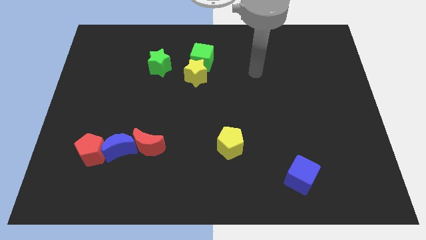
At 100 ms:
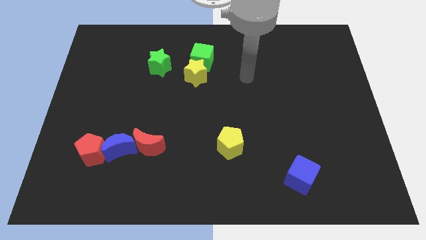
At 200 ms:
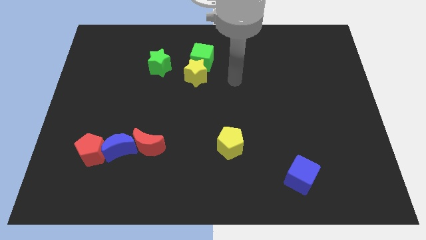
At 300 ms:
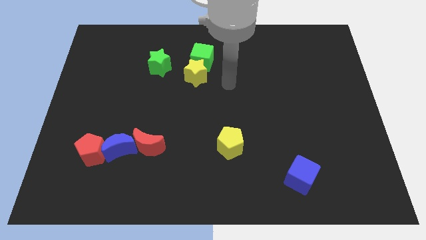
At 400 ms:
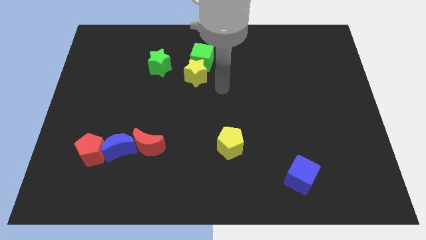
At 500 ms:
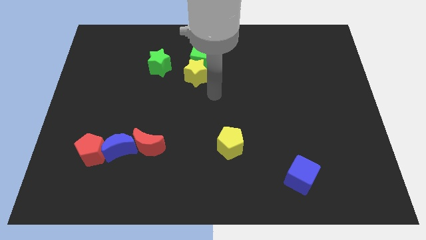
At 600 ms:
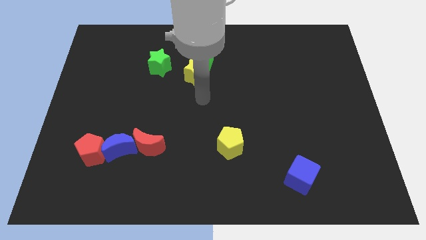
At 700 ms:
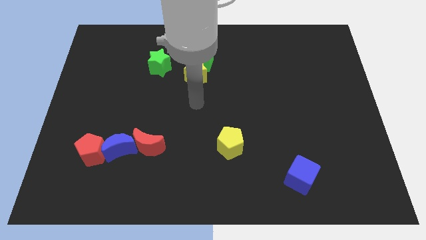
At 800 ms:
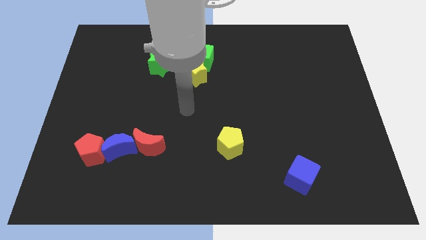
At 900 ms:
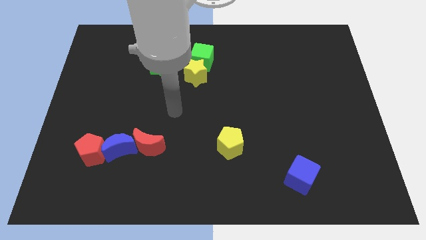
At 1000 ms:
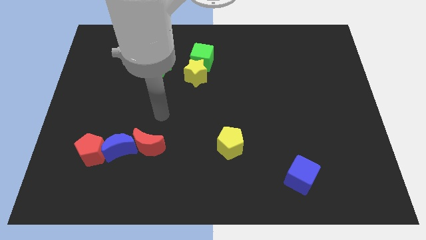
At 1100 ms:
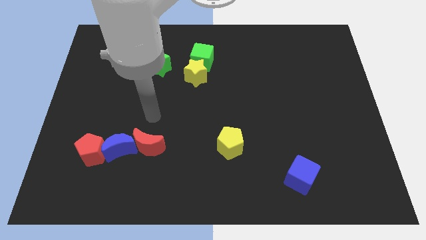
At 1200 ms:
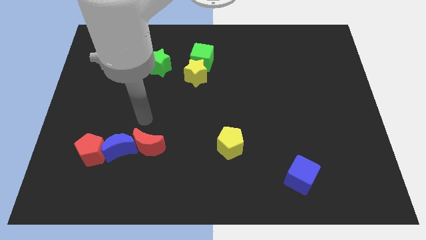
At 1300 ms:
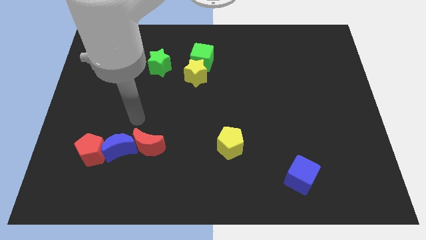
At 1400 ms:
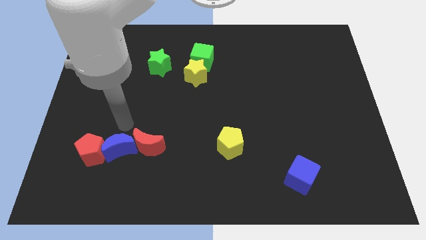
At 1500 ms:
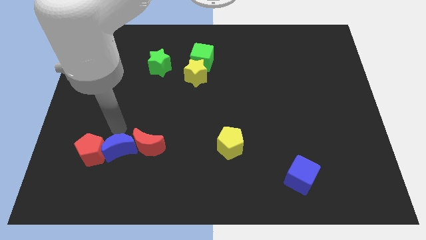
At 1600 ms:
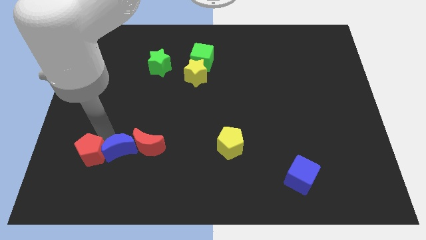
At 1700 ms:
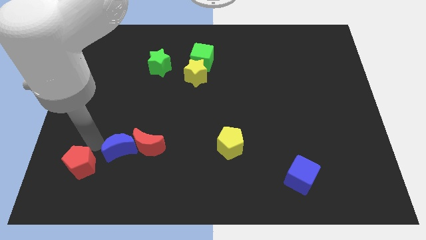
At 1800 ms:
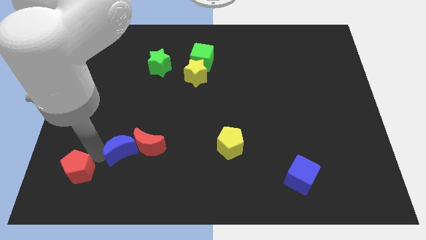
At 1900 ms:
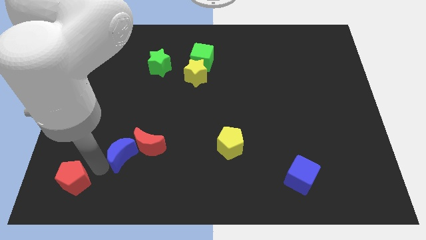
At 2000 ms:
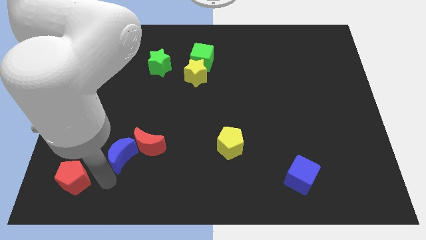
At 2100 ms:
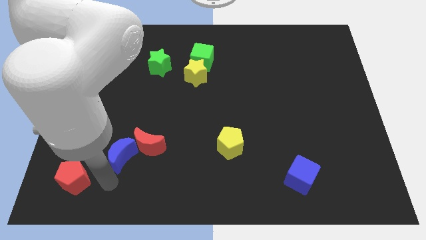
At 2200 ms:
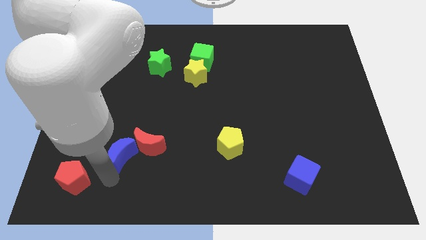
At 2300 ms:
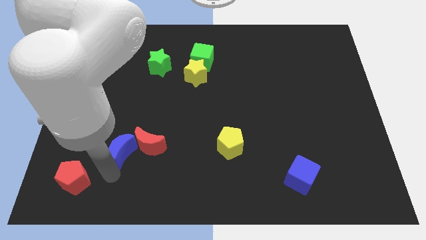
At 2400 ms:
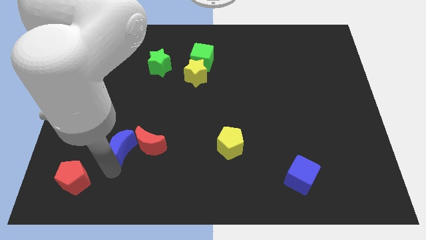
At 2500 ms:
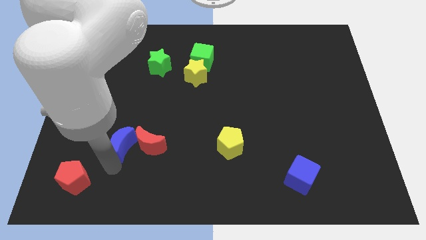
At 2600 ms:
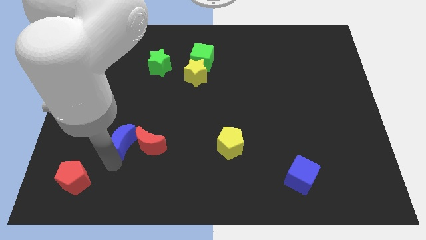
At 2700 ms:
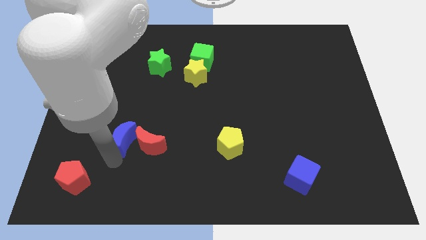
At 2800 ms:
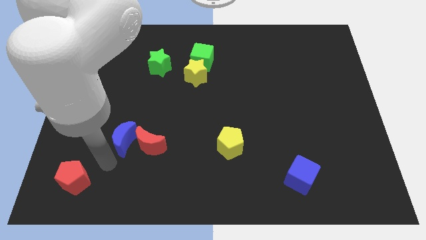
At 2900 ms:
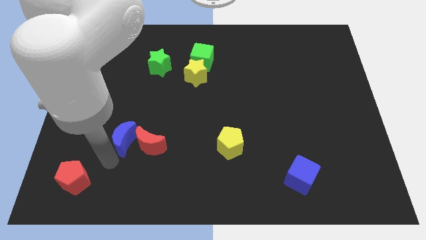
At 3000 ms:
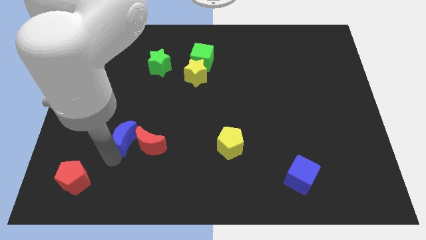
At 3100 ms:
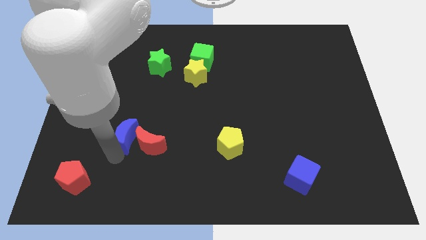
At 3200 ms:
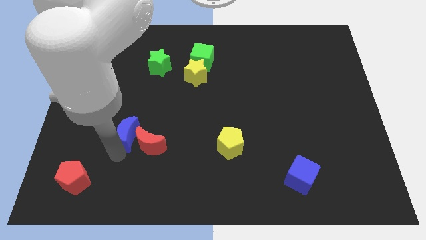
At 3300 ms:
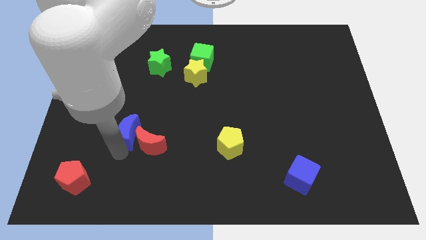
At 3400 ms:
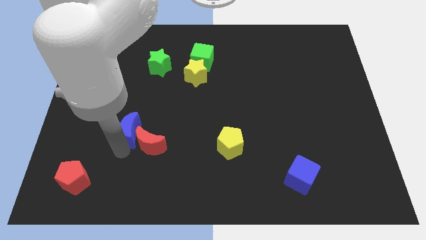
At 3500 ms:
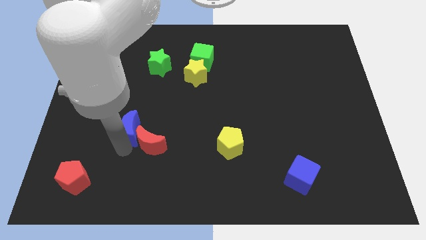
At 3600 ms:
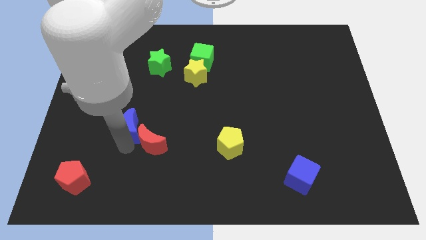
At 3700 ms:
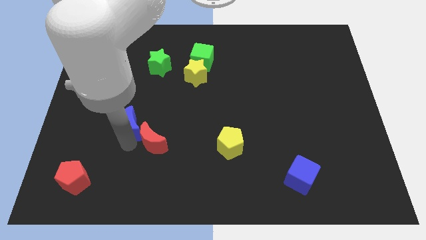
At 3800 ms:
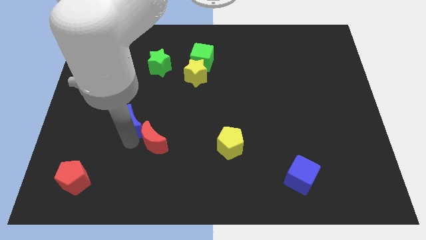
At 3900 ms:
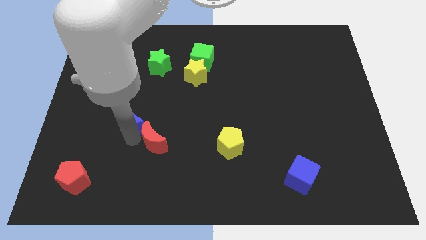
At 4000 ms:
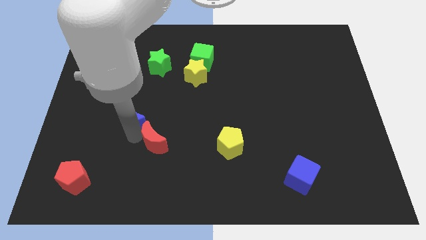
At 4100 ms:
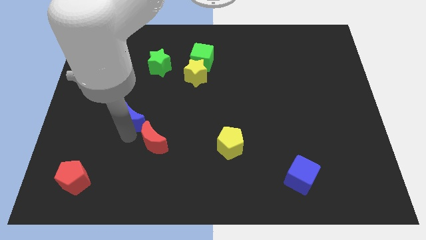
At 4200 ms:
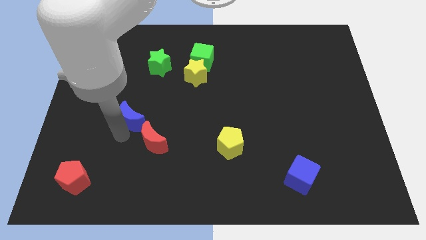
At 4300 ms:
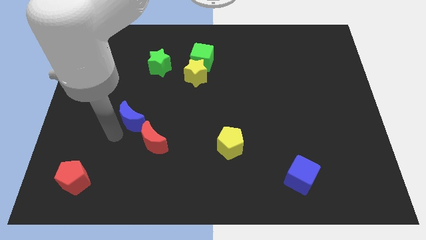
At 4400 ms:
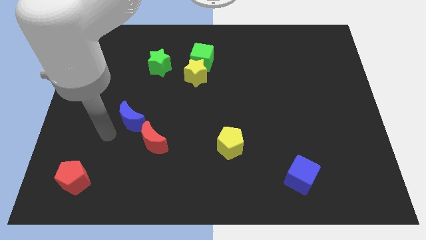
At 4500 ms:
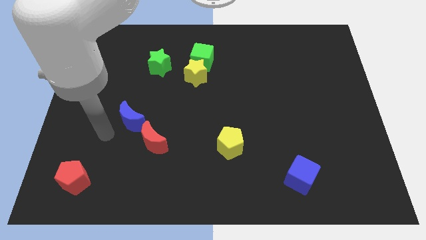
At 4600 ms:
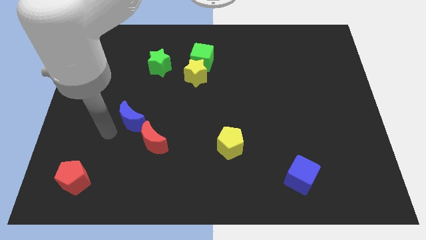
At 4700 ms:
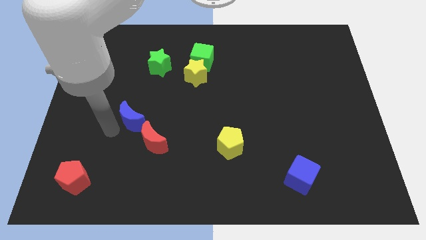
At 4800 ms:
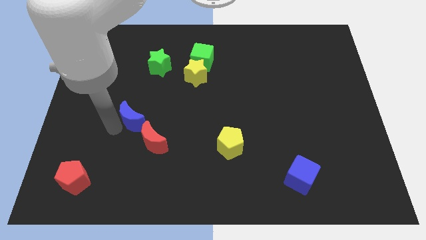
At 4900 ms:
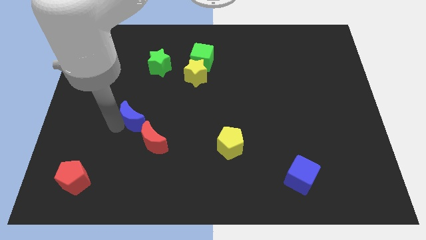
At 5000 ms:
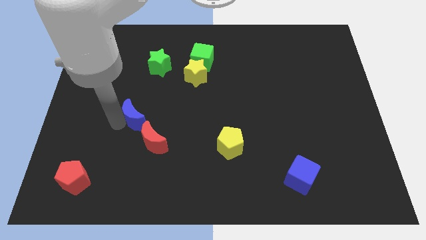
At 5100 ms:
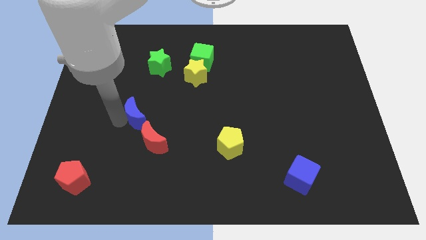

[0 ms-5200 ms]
slide the blue moon slightly upwards and right diagonally

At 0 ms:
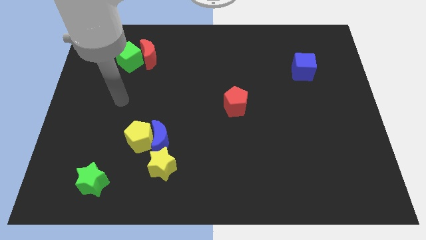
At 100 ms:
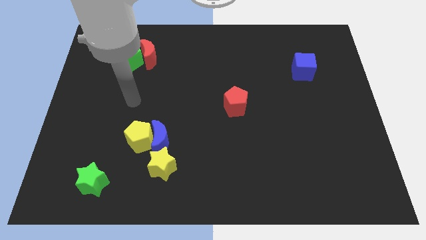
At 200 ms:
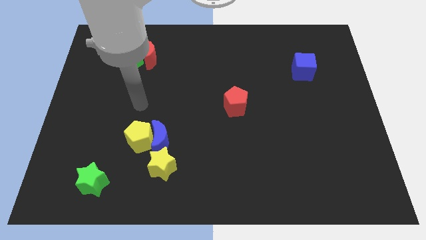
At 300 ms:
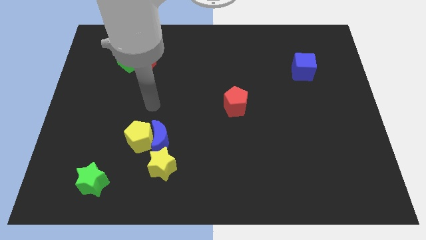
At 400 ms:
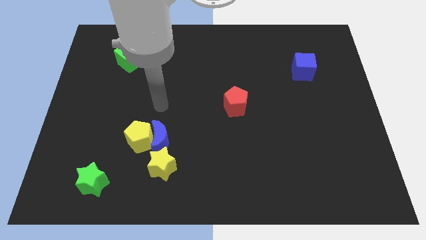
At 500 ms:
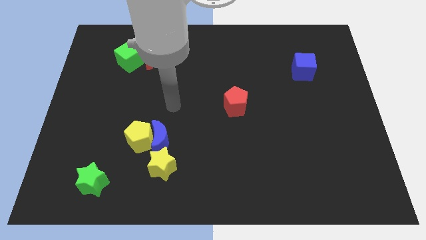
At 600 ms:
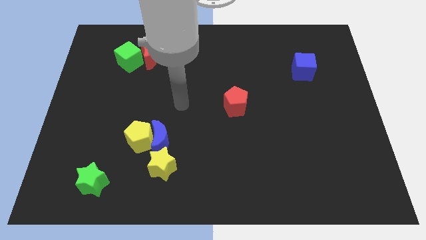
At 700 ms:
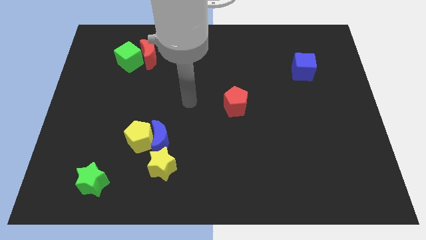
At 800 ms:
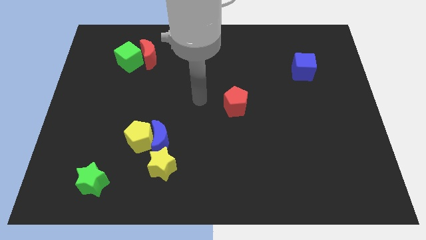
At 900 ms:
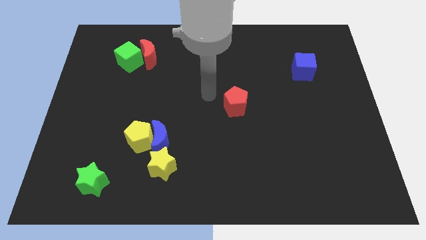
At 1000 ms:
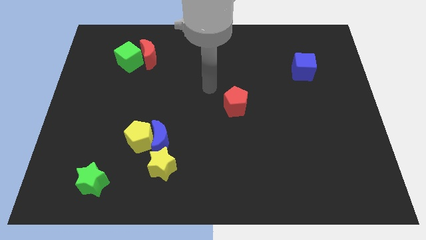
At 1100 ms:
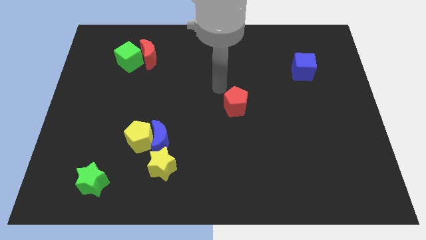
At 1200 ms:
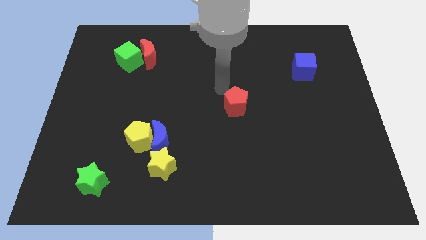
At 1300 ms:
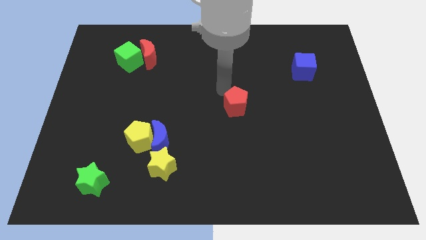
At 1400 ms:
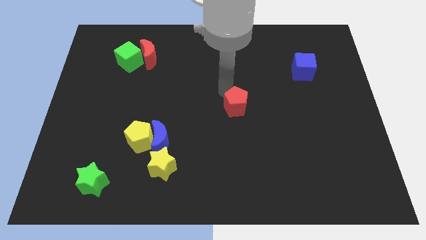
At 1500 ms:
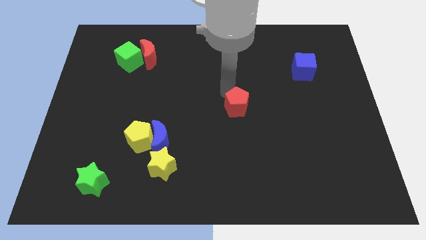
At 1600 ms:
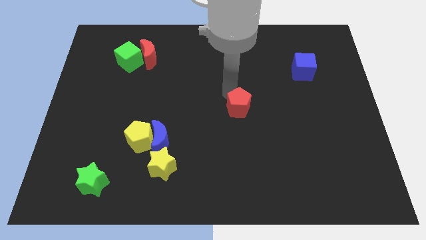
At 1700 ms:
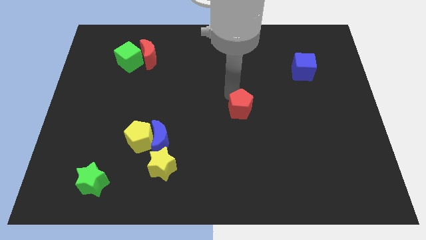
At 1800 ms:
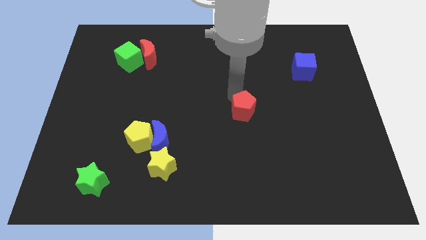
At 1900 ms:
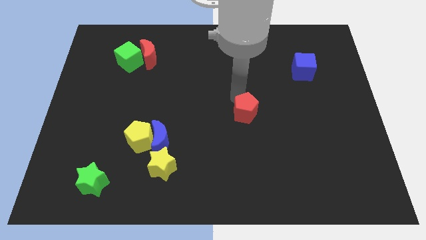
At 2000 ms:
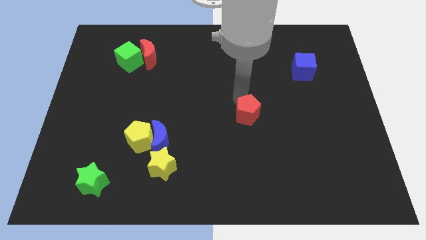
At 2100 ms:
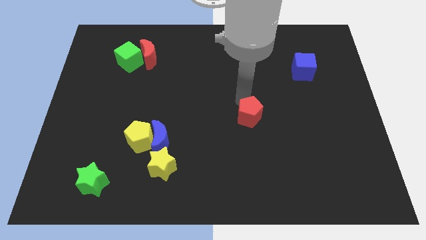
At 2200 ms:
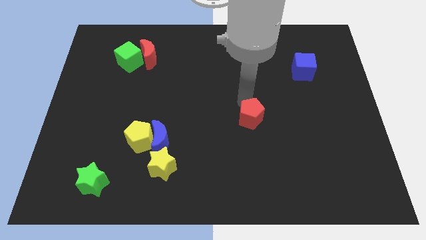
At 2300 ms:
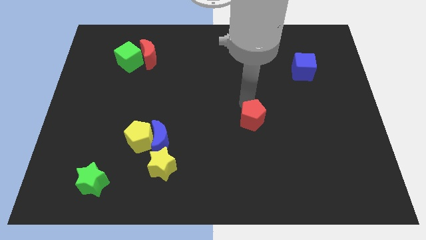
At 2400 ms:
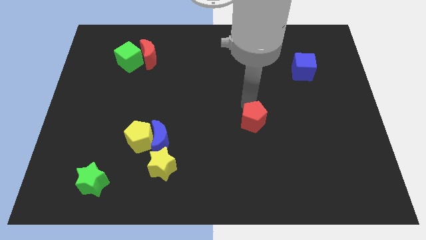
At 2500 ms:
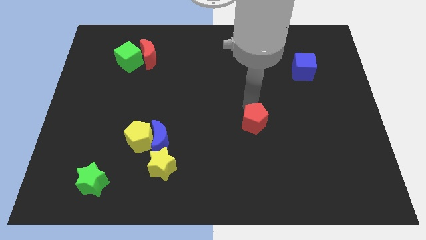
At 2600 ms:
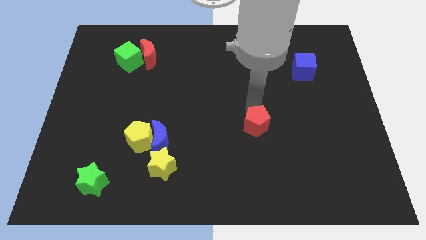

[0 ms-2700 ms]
slide the red pentagon slightly diagonally downwards and to the right

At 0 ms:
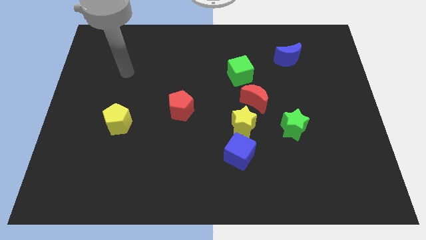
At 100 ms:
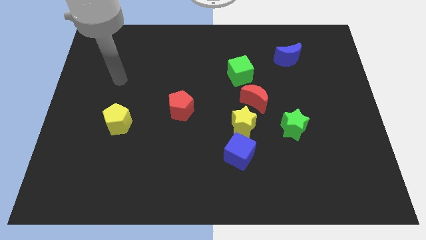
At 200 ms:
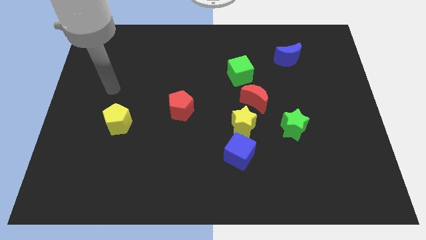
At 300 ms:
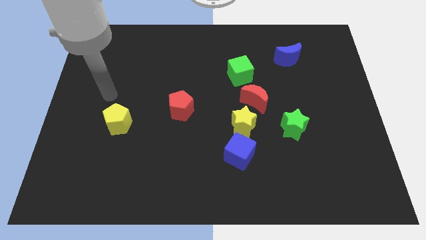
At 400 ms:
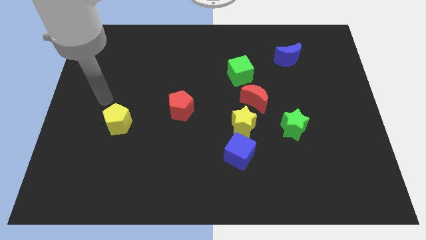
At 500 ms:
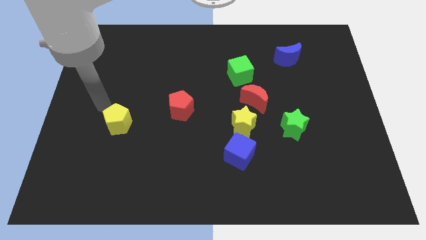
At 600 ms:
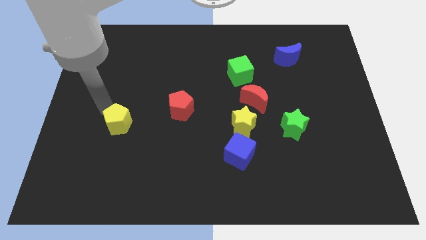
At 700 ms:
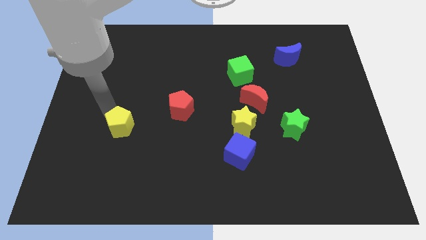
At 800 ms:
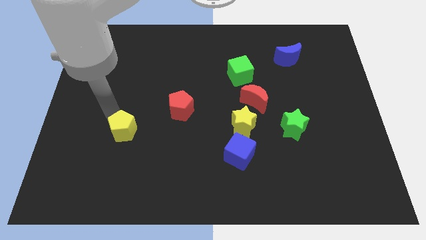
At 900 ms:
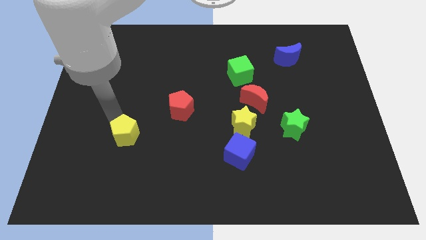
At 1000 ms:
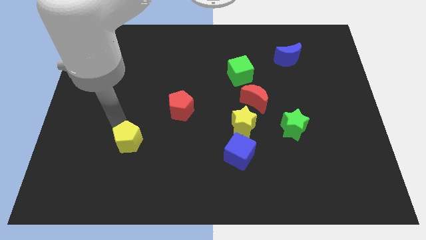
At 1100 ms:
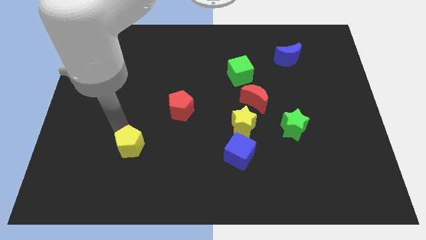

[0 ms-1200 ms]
move the yellow pentagon down and right diagonally a little bit
